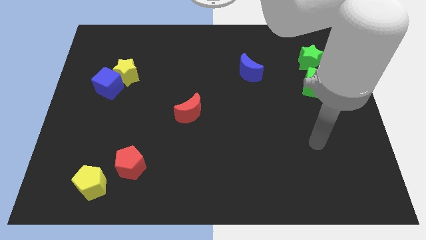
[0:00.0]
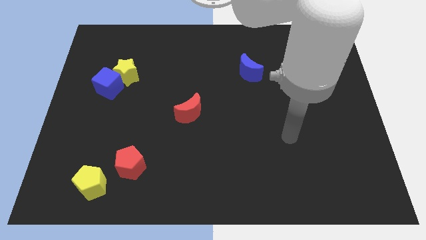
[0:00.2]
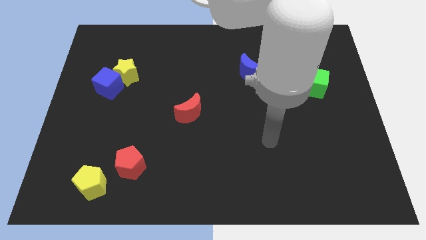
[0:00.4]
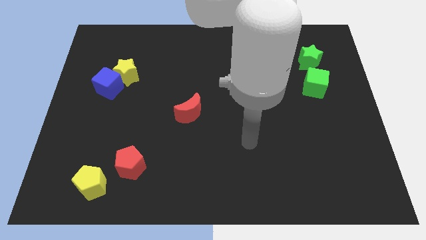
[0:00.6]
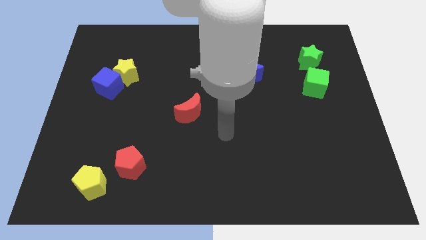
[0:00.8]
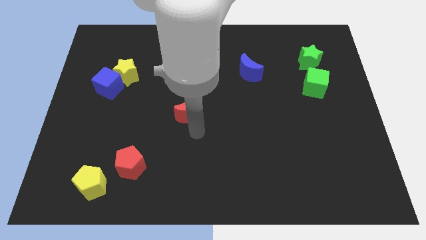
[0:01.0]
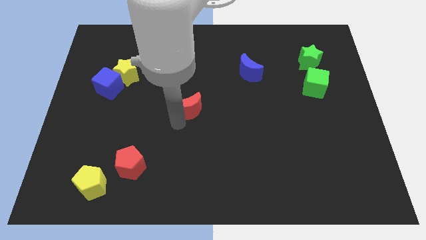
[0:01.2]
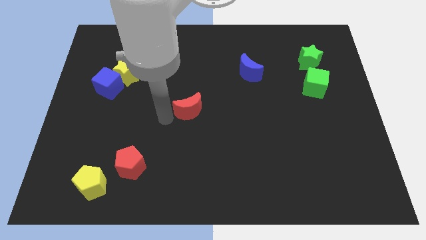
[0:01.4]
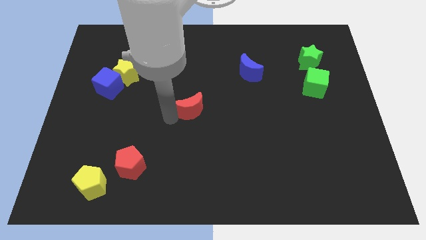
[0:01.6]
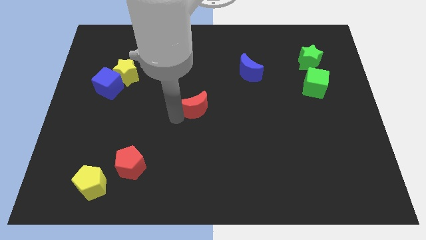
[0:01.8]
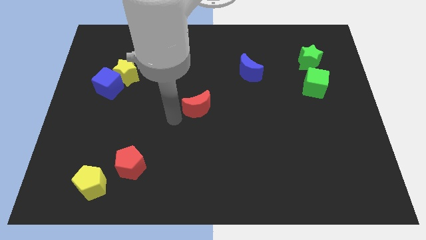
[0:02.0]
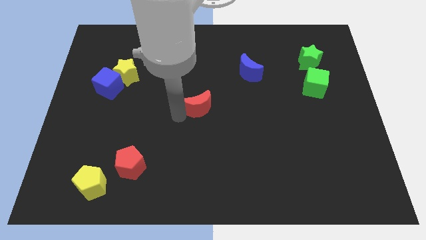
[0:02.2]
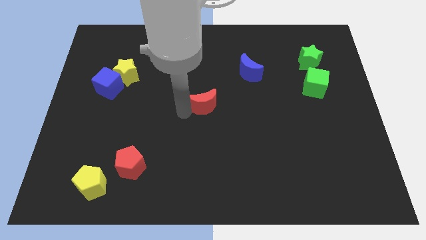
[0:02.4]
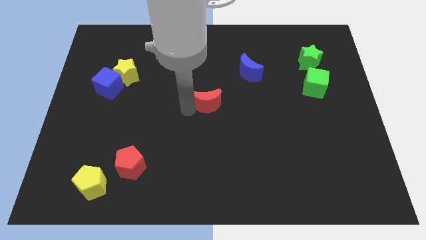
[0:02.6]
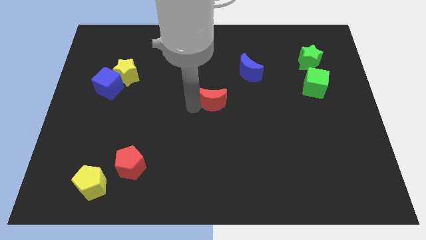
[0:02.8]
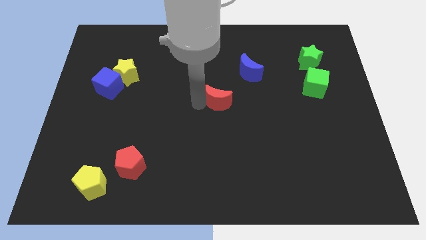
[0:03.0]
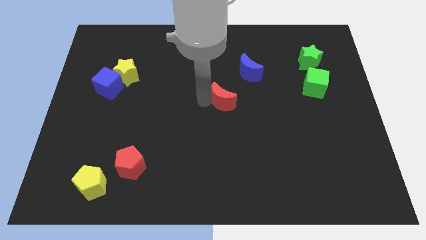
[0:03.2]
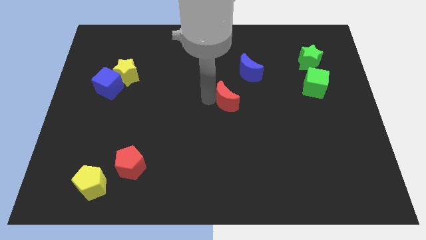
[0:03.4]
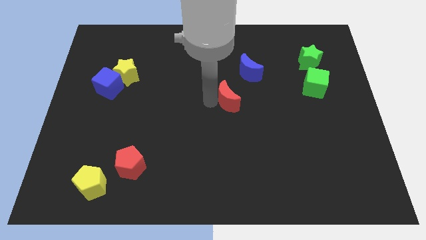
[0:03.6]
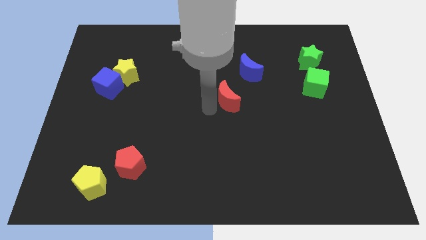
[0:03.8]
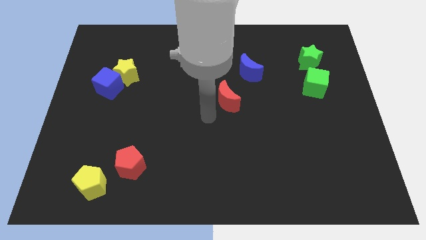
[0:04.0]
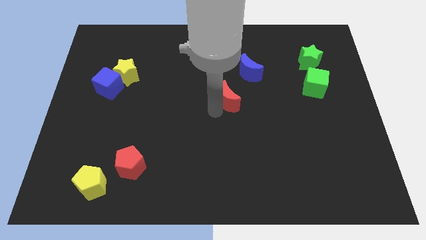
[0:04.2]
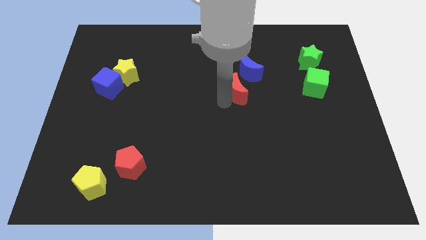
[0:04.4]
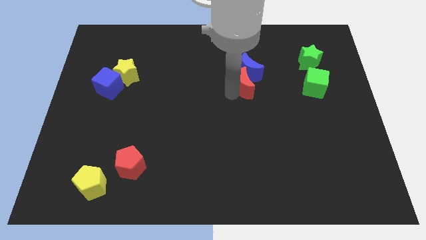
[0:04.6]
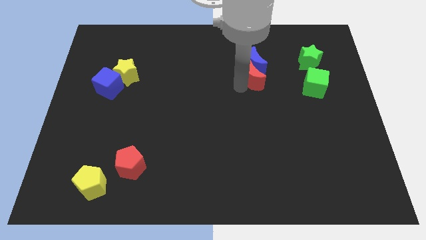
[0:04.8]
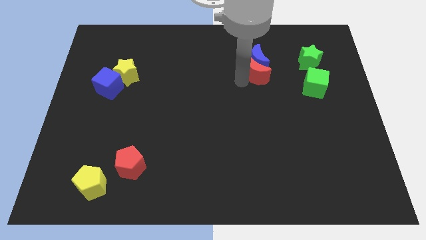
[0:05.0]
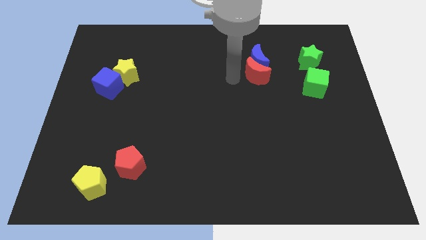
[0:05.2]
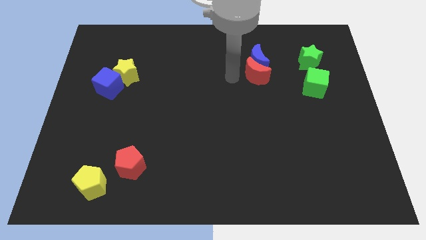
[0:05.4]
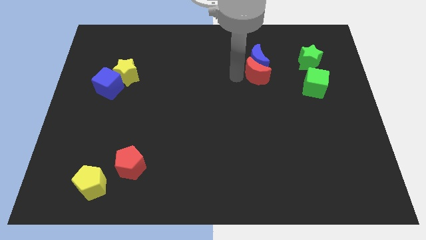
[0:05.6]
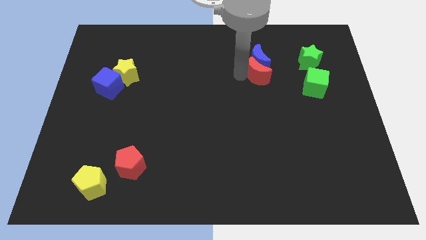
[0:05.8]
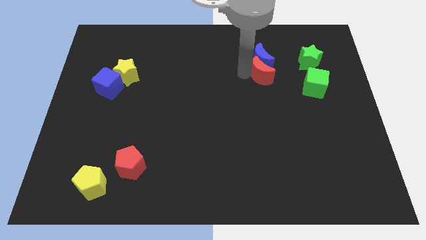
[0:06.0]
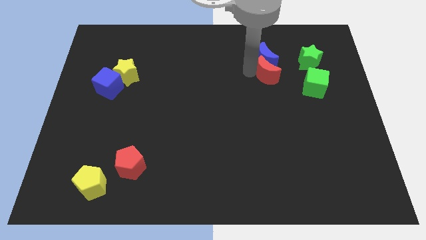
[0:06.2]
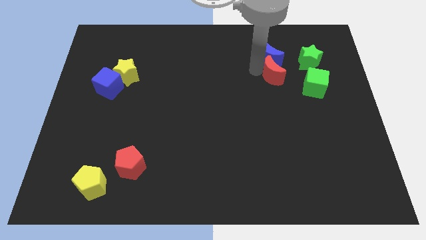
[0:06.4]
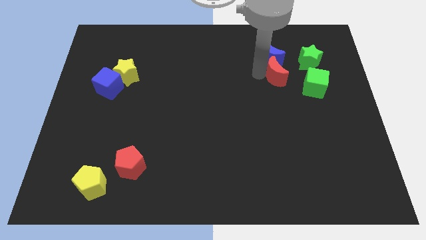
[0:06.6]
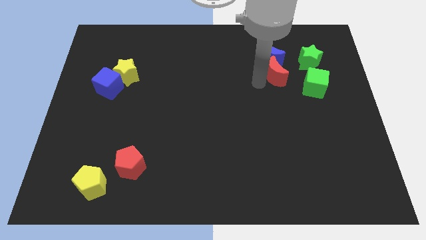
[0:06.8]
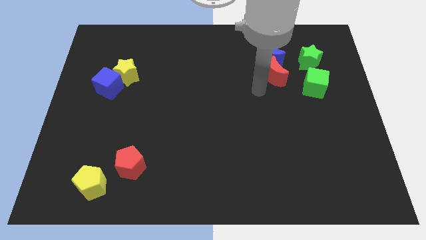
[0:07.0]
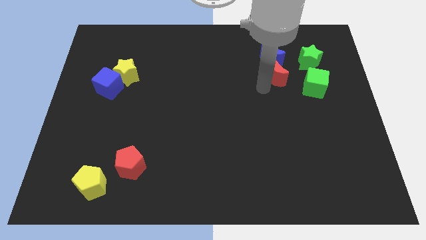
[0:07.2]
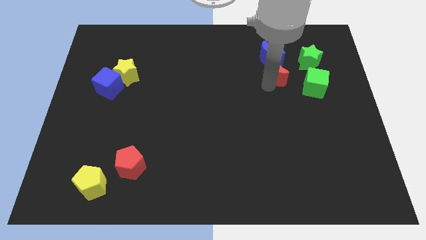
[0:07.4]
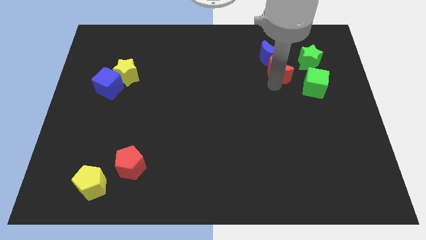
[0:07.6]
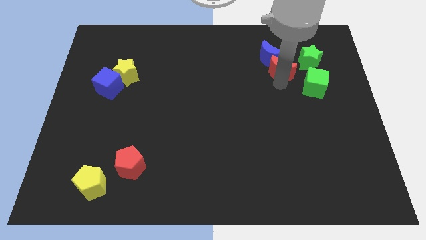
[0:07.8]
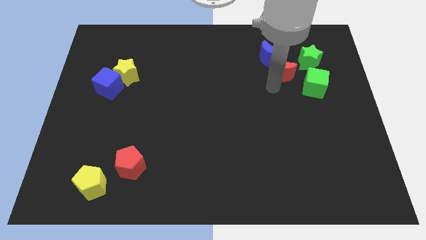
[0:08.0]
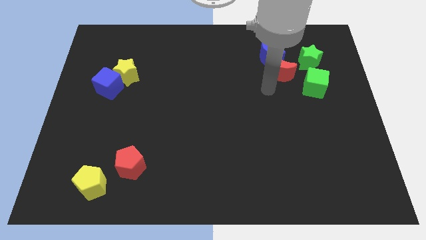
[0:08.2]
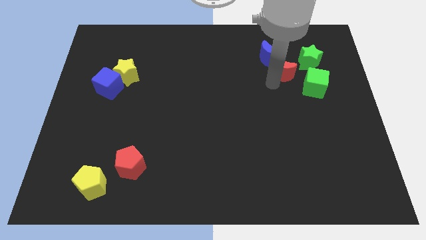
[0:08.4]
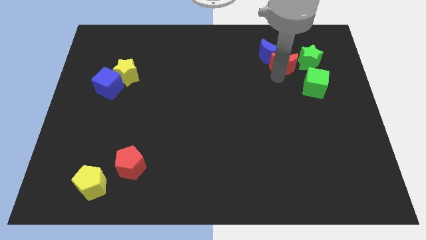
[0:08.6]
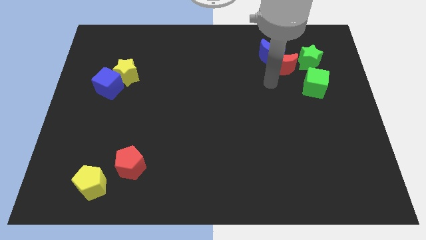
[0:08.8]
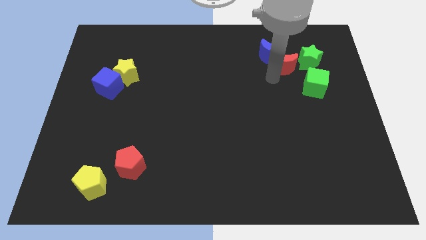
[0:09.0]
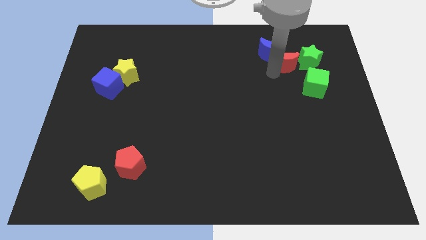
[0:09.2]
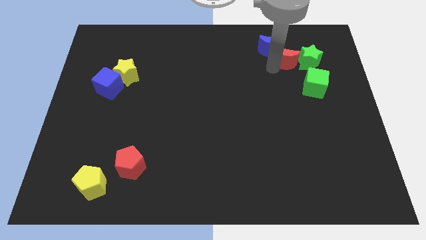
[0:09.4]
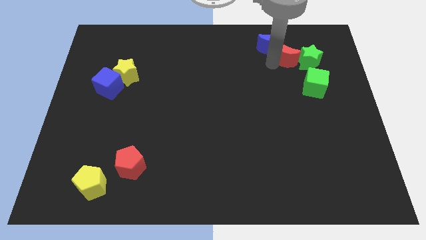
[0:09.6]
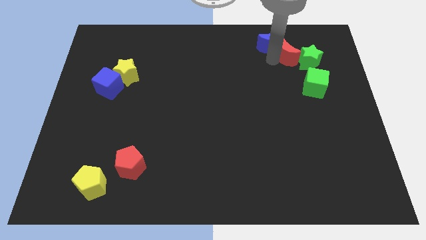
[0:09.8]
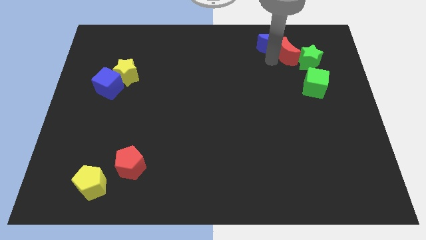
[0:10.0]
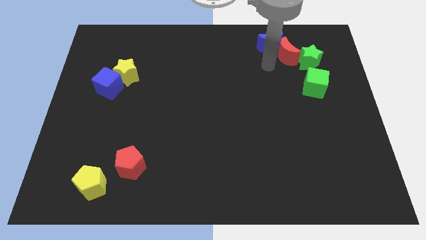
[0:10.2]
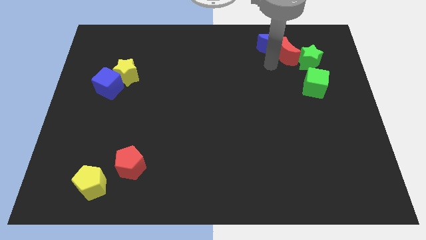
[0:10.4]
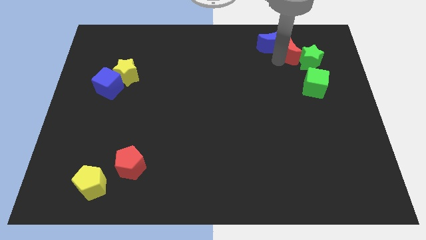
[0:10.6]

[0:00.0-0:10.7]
put the red moon to the top side of the green cube

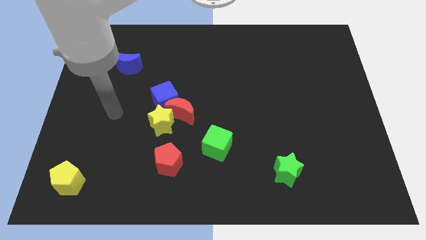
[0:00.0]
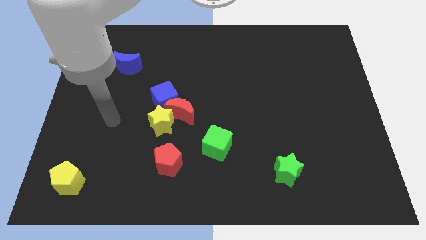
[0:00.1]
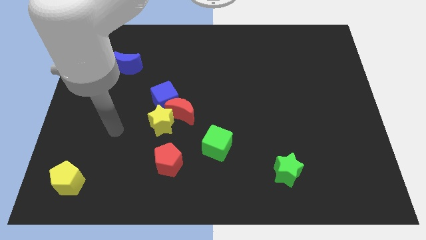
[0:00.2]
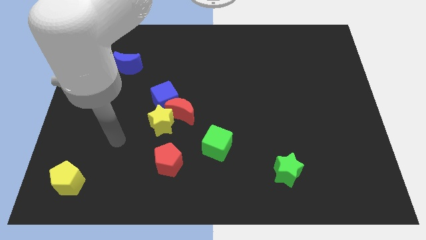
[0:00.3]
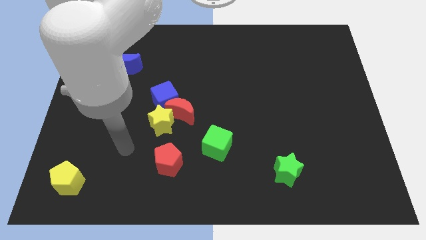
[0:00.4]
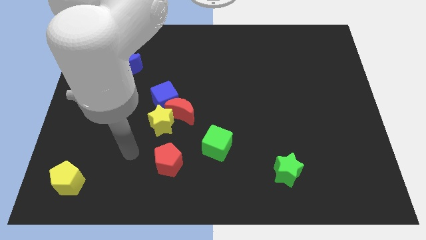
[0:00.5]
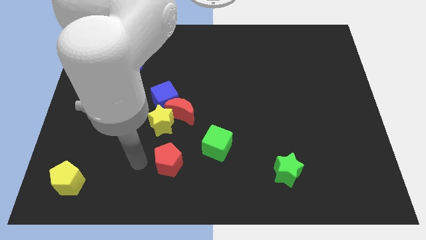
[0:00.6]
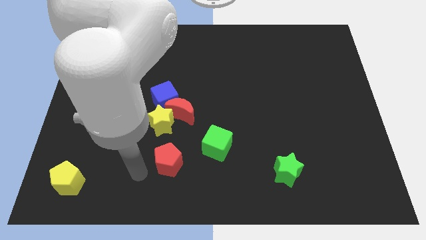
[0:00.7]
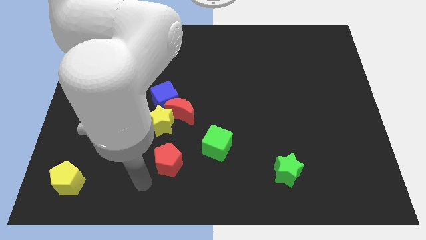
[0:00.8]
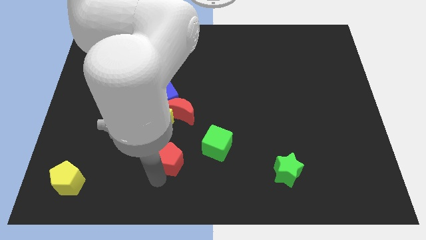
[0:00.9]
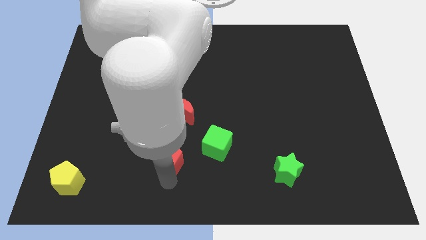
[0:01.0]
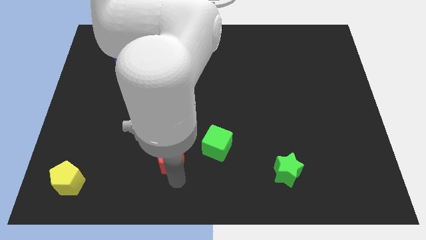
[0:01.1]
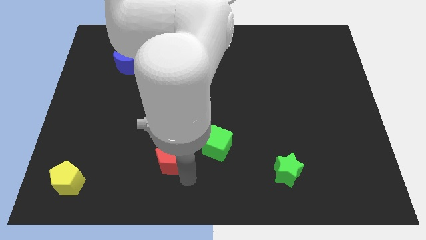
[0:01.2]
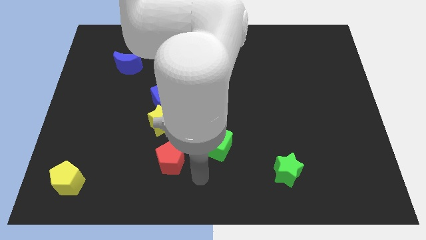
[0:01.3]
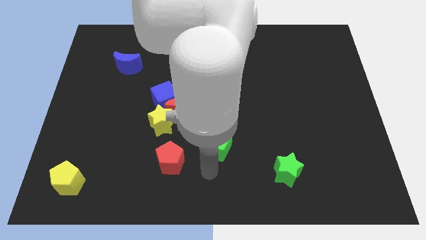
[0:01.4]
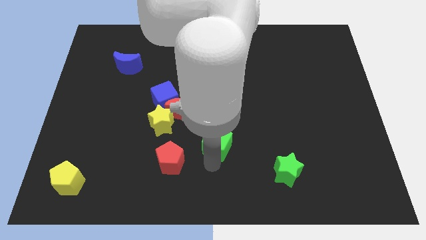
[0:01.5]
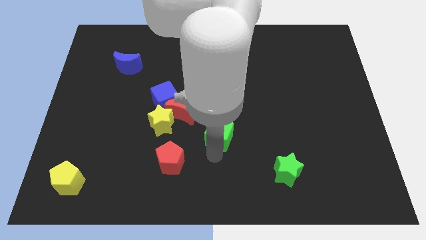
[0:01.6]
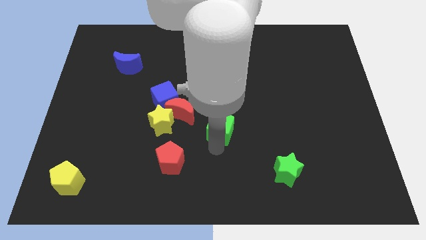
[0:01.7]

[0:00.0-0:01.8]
push the green cube right of the red moon
